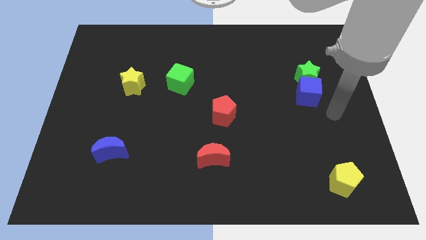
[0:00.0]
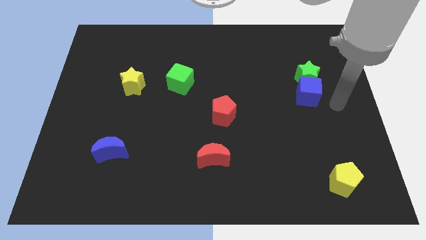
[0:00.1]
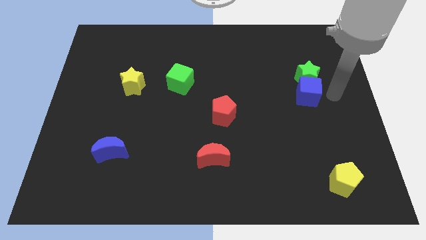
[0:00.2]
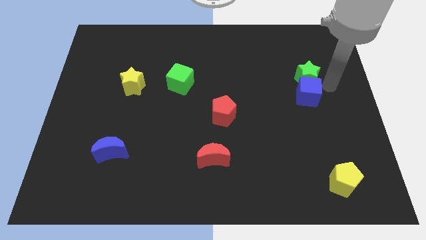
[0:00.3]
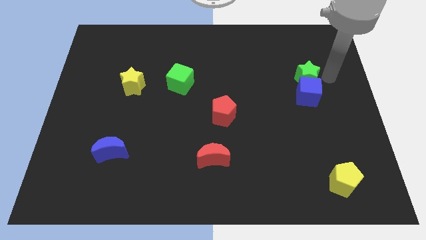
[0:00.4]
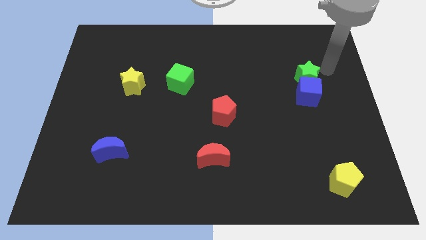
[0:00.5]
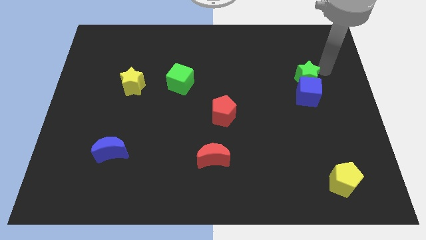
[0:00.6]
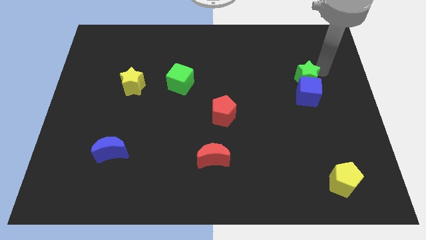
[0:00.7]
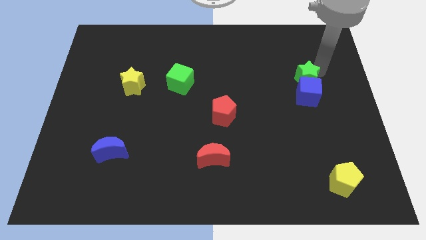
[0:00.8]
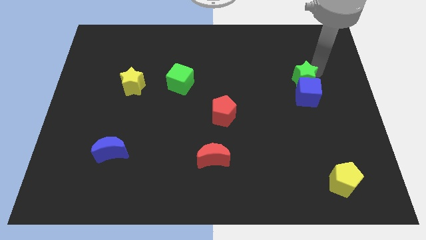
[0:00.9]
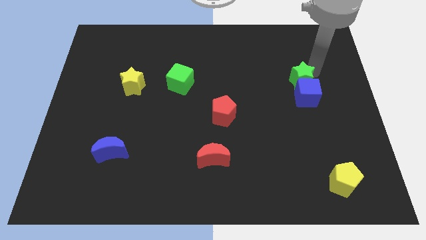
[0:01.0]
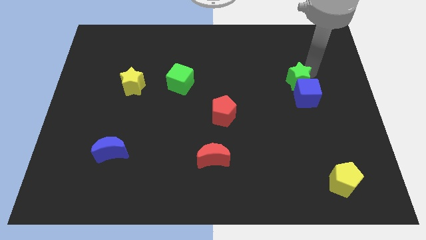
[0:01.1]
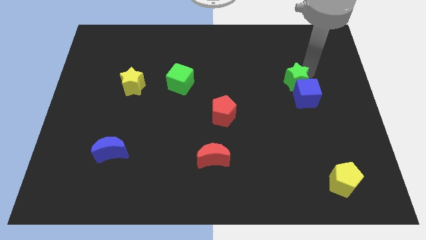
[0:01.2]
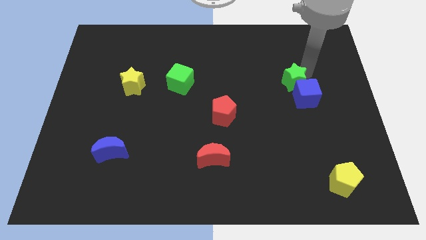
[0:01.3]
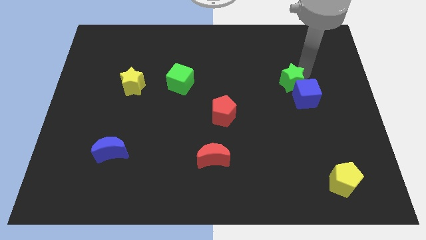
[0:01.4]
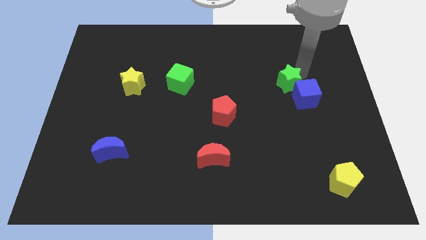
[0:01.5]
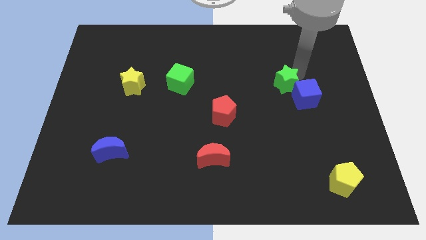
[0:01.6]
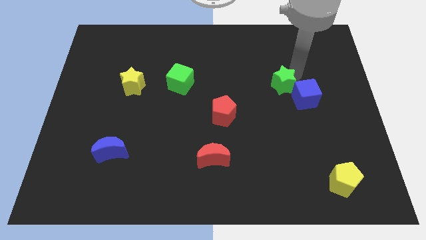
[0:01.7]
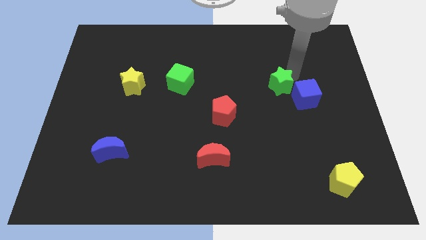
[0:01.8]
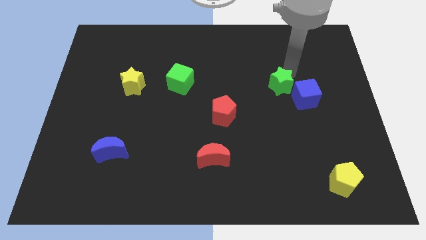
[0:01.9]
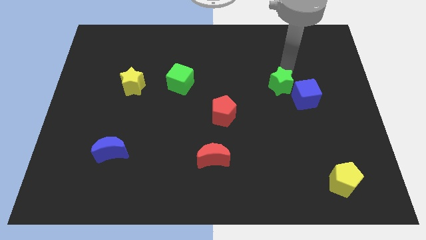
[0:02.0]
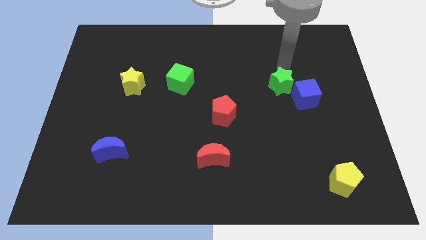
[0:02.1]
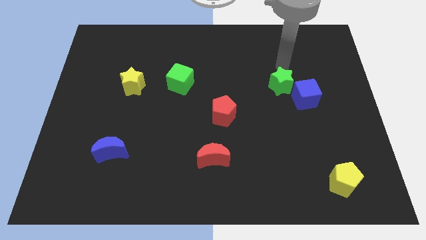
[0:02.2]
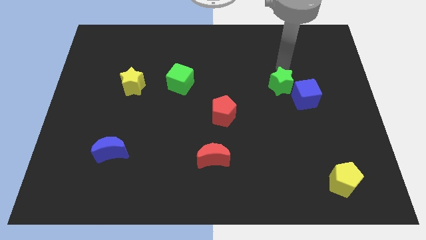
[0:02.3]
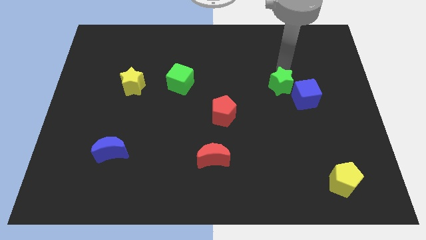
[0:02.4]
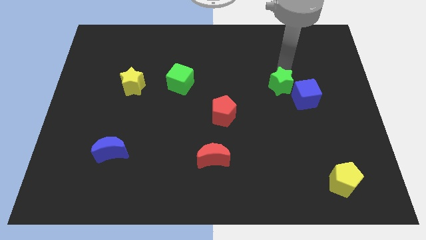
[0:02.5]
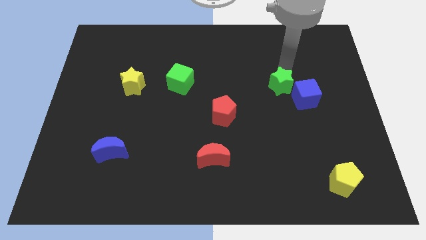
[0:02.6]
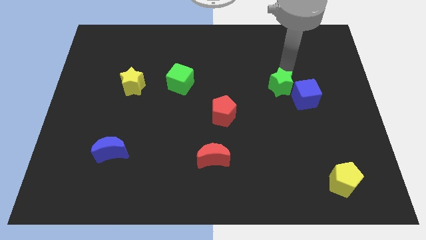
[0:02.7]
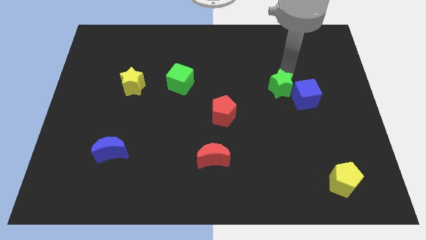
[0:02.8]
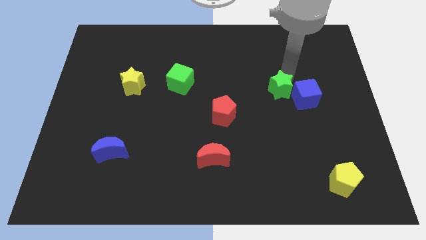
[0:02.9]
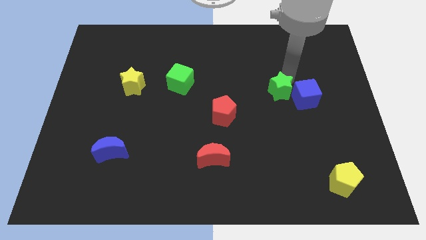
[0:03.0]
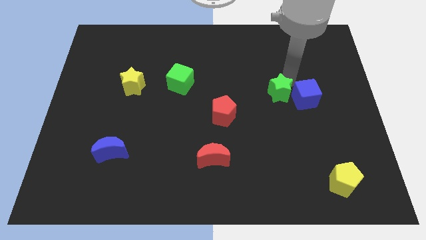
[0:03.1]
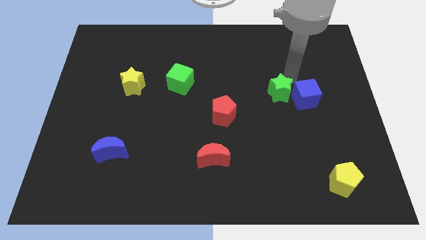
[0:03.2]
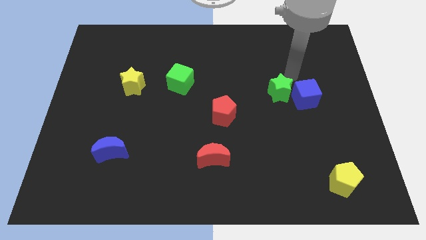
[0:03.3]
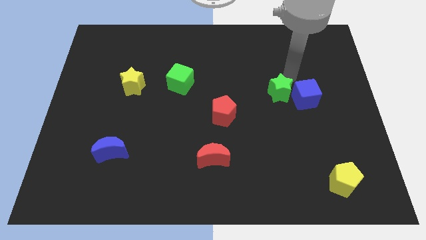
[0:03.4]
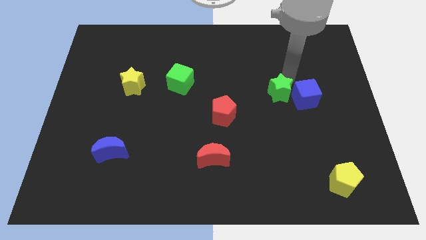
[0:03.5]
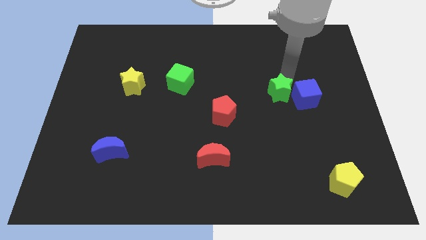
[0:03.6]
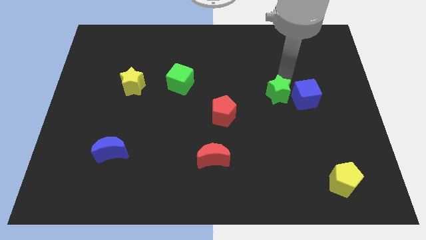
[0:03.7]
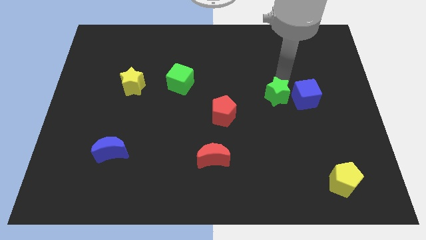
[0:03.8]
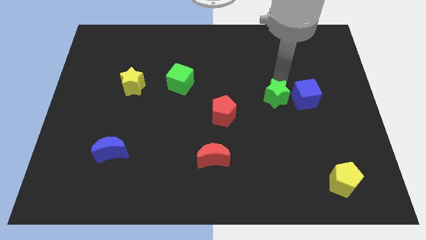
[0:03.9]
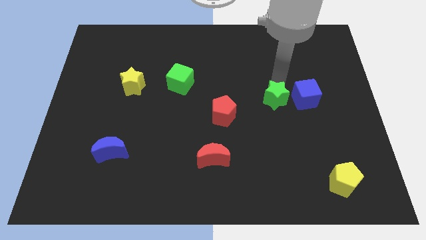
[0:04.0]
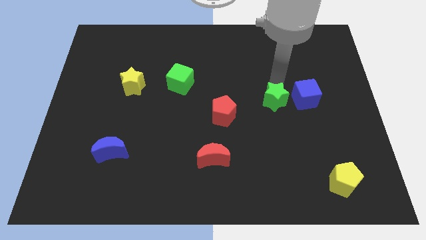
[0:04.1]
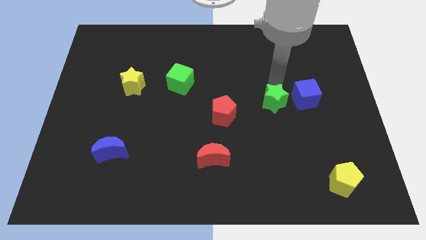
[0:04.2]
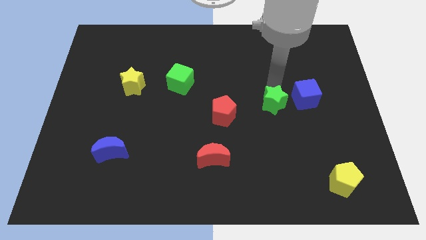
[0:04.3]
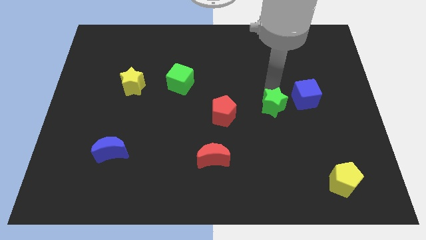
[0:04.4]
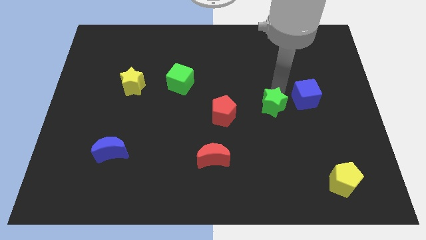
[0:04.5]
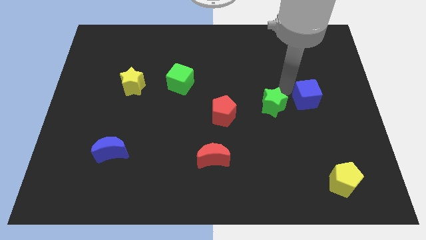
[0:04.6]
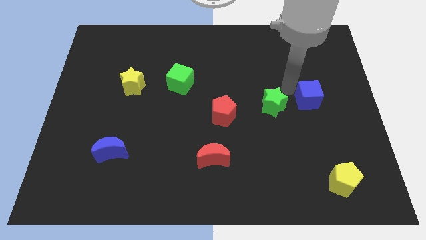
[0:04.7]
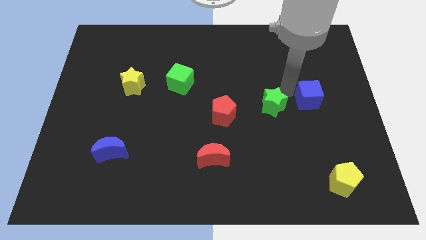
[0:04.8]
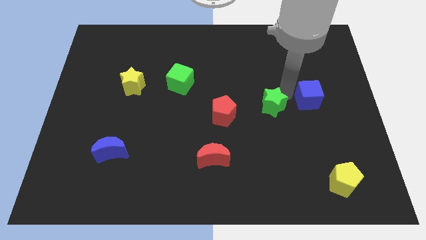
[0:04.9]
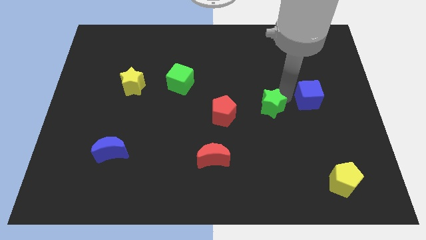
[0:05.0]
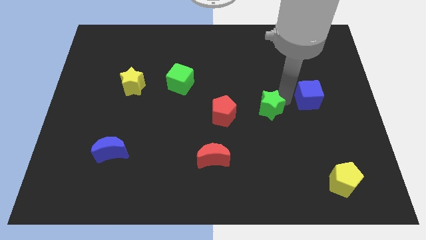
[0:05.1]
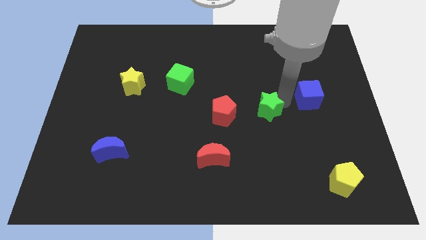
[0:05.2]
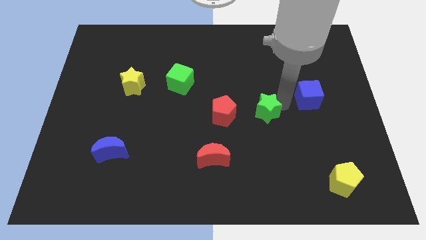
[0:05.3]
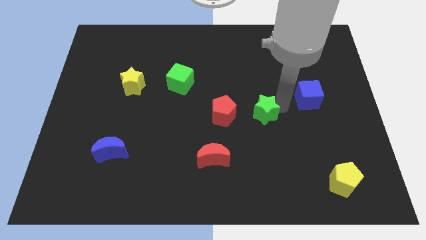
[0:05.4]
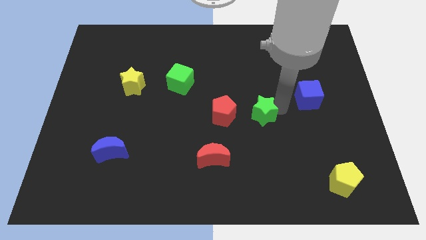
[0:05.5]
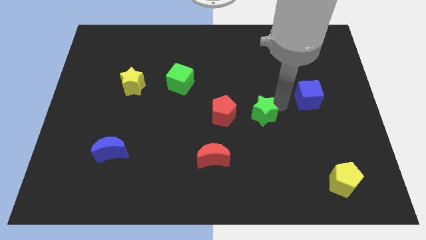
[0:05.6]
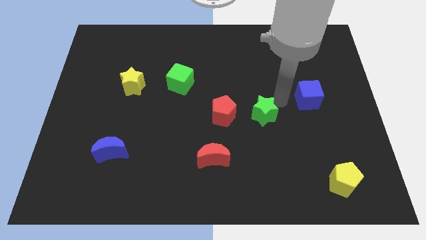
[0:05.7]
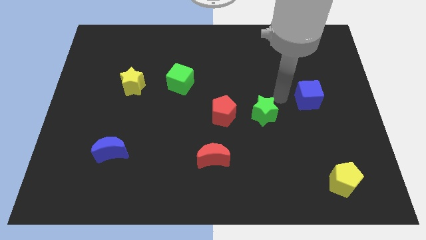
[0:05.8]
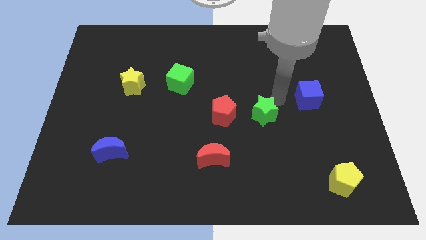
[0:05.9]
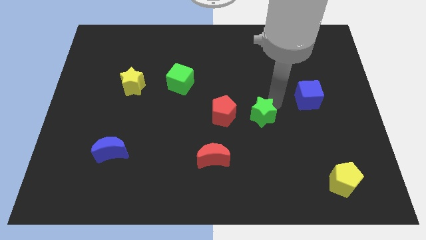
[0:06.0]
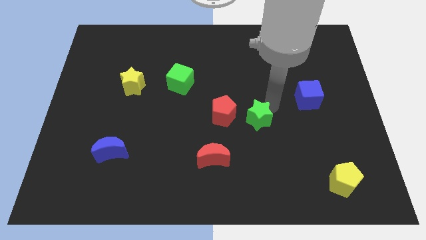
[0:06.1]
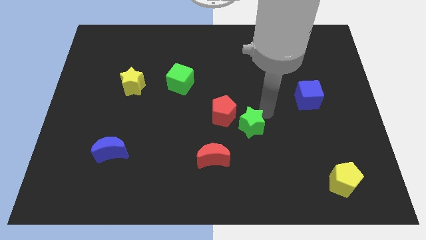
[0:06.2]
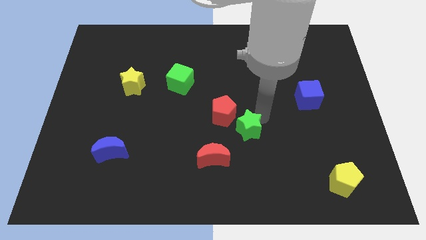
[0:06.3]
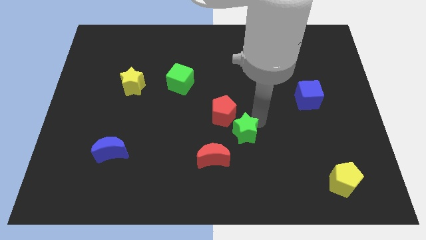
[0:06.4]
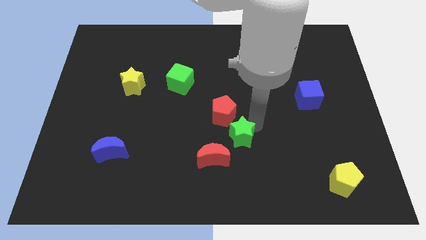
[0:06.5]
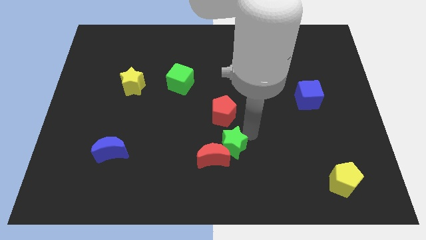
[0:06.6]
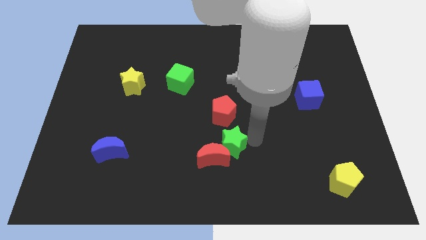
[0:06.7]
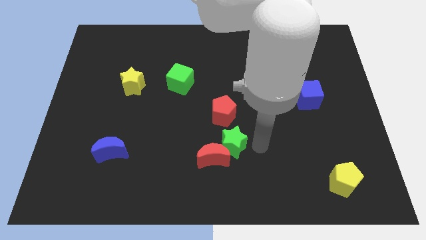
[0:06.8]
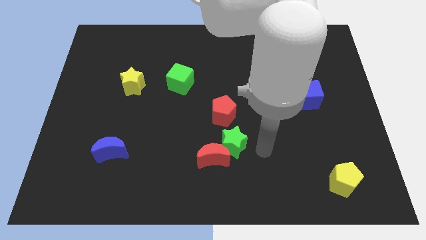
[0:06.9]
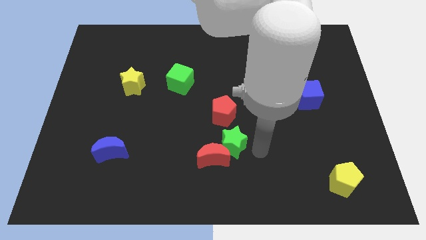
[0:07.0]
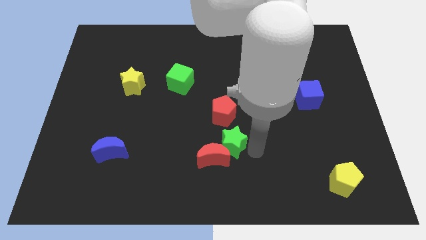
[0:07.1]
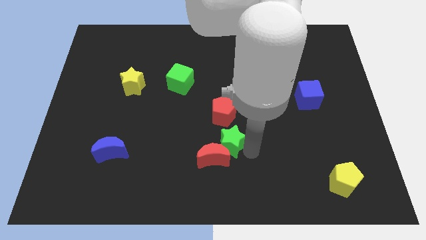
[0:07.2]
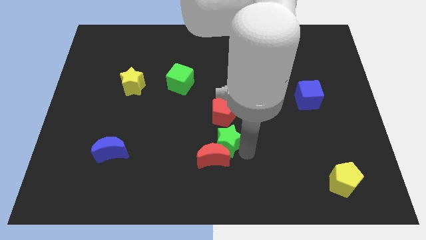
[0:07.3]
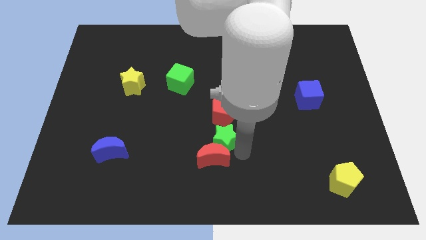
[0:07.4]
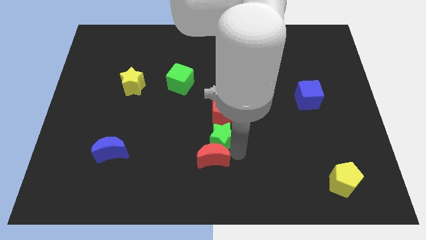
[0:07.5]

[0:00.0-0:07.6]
move the green star to the top left side of the red moon
